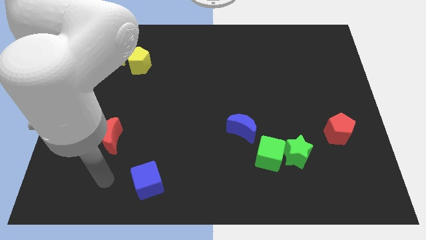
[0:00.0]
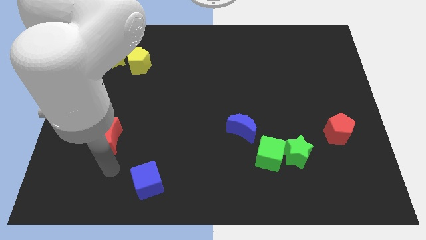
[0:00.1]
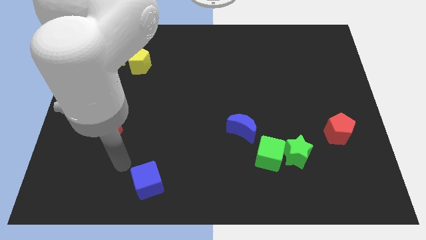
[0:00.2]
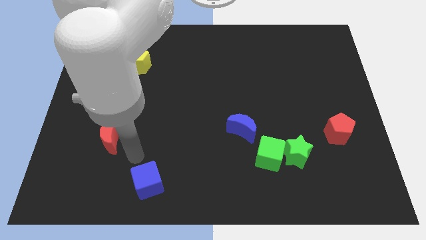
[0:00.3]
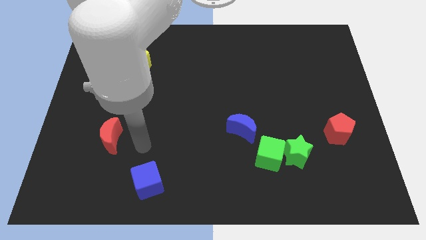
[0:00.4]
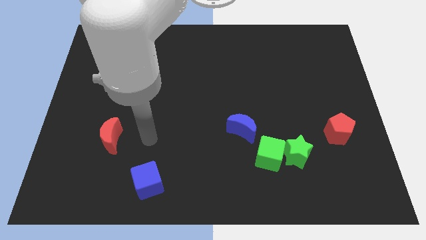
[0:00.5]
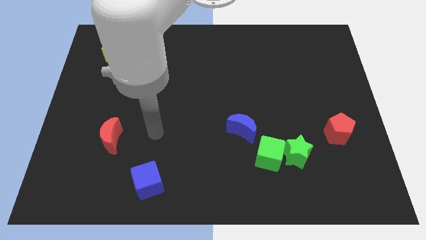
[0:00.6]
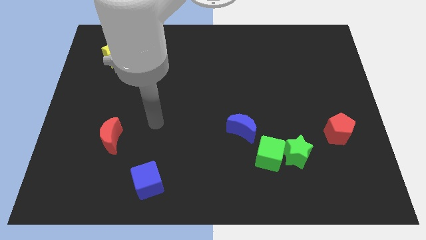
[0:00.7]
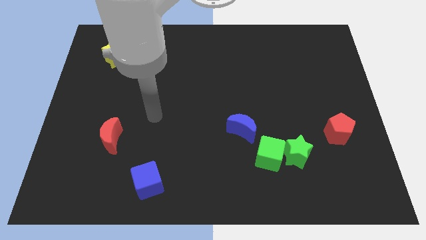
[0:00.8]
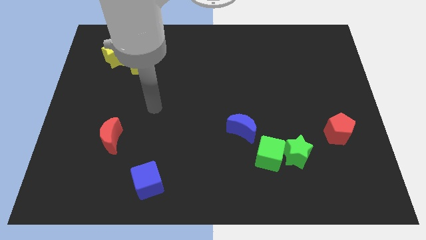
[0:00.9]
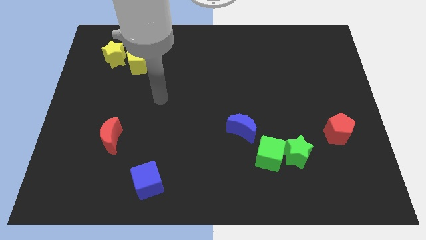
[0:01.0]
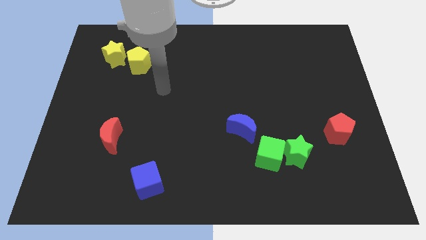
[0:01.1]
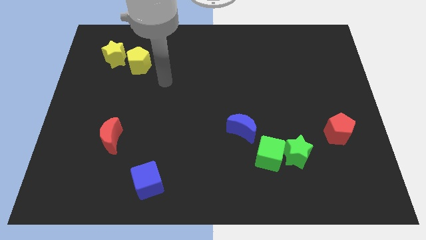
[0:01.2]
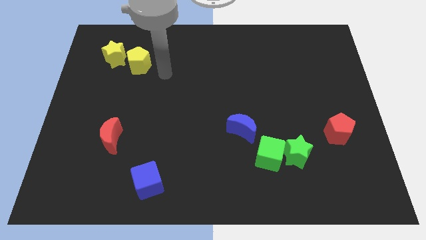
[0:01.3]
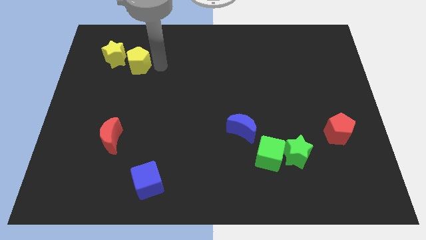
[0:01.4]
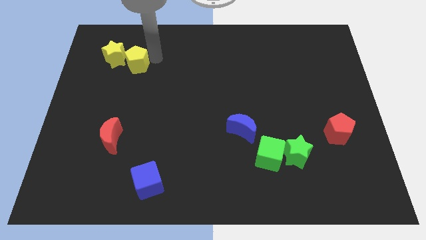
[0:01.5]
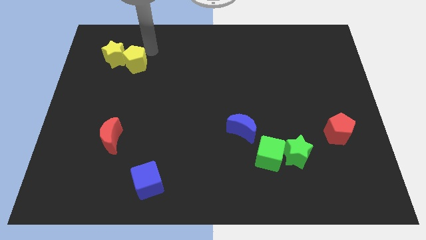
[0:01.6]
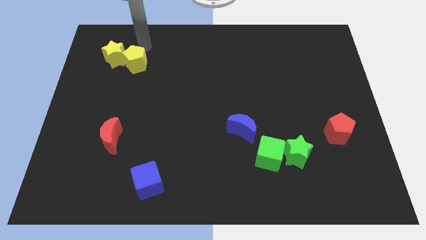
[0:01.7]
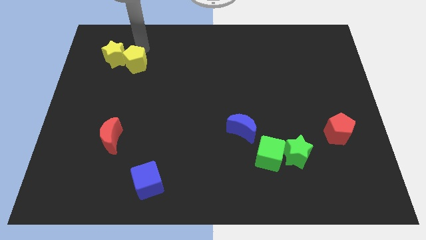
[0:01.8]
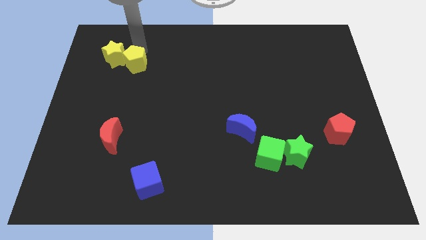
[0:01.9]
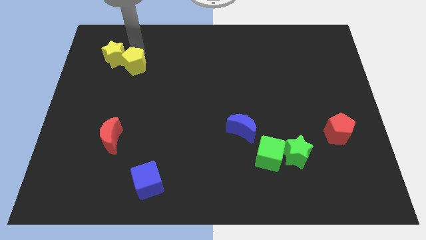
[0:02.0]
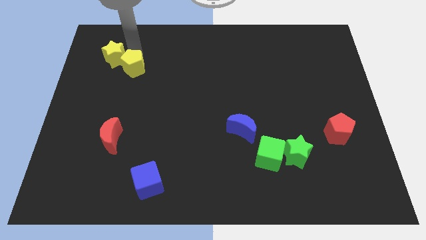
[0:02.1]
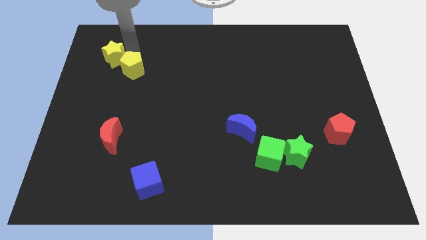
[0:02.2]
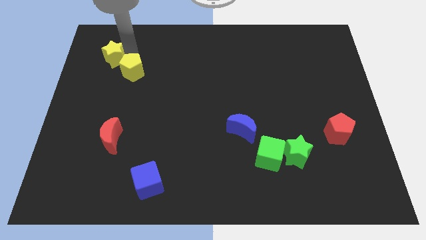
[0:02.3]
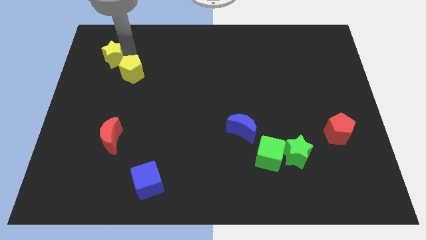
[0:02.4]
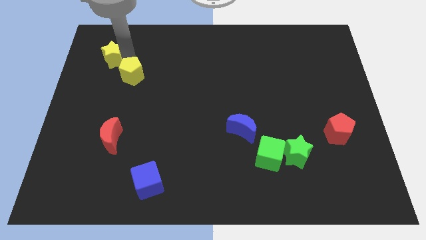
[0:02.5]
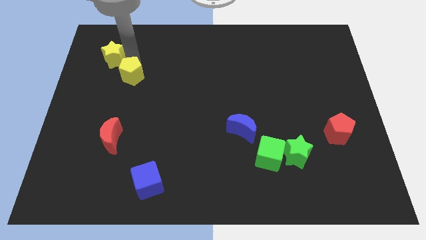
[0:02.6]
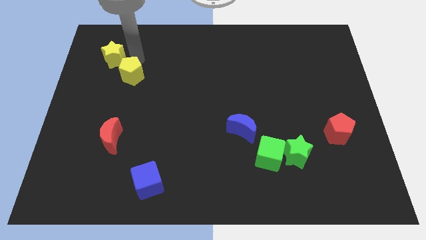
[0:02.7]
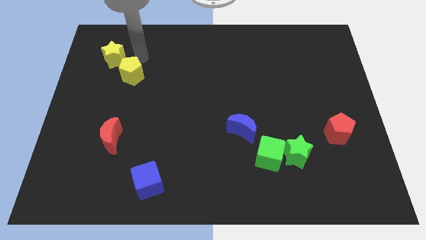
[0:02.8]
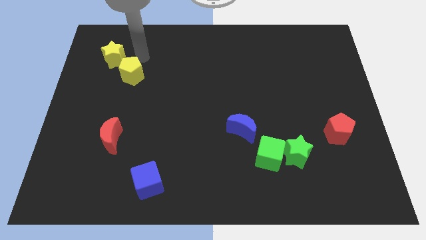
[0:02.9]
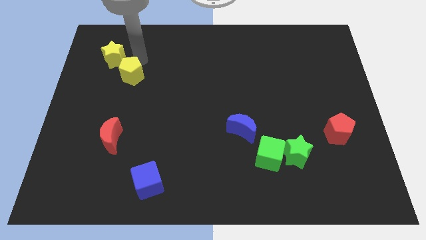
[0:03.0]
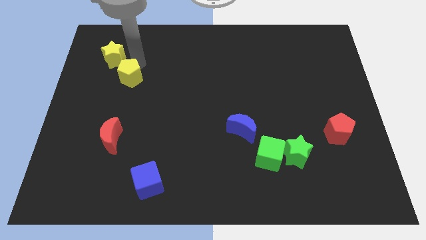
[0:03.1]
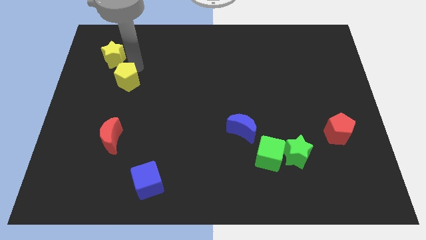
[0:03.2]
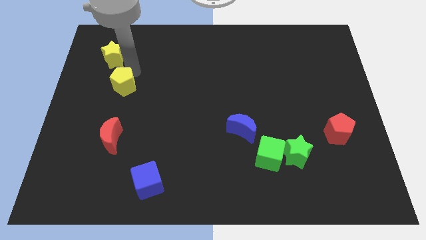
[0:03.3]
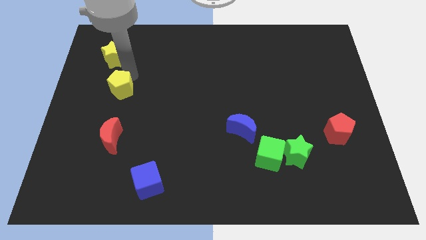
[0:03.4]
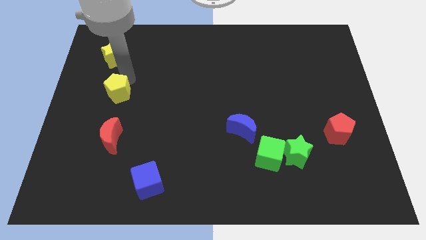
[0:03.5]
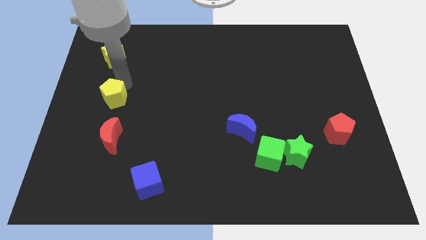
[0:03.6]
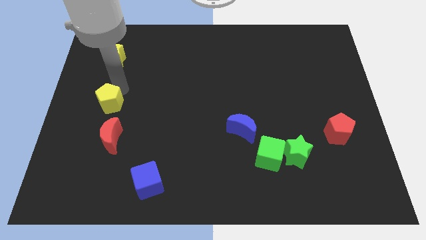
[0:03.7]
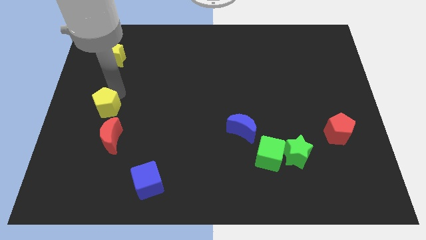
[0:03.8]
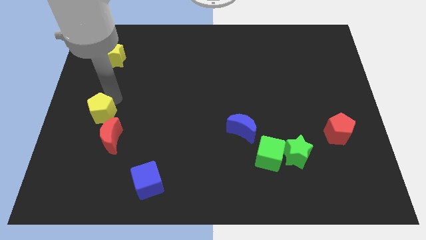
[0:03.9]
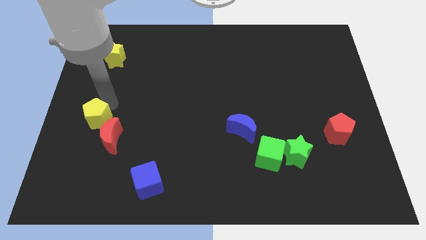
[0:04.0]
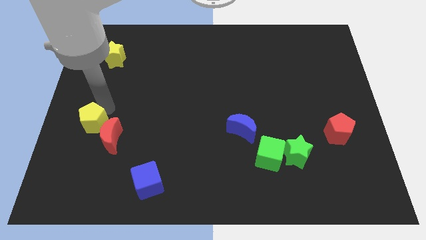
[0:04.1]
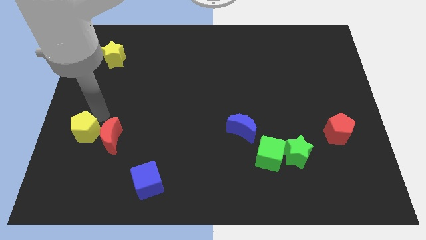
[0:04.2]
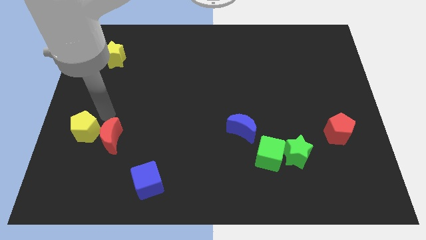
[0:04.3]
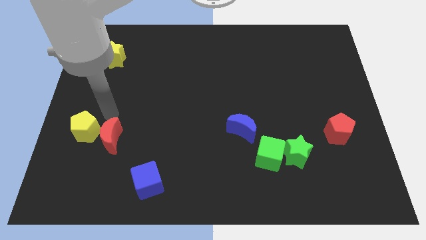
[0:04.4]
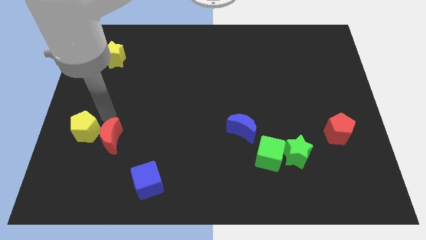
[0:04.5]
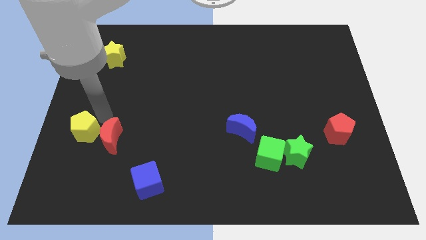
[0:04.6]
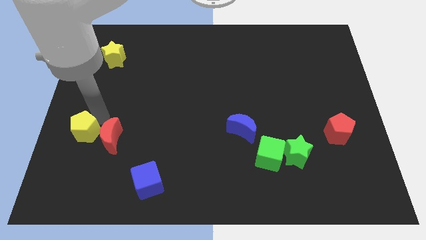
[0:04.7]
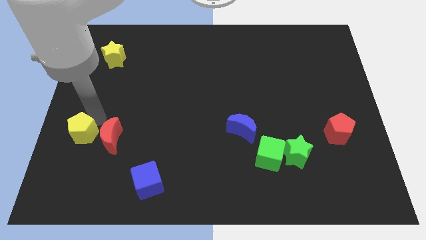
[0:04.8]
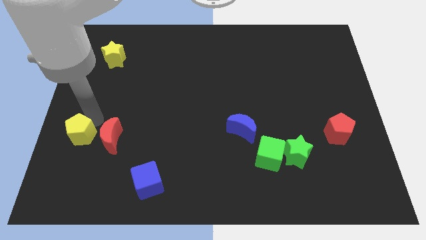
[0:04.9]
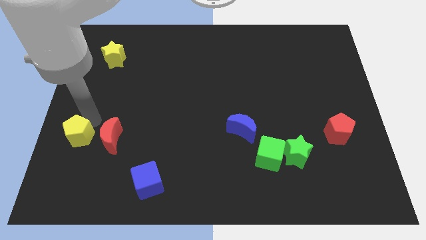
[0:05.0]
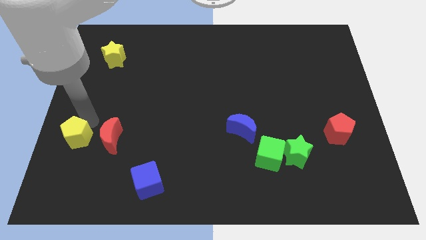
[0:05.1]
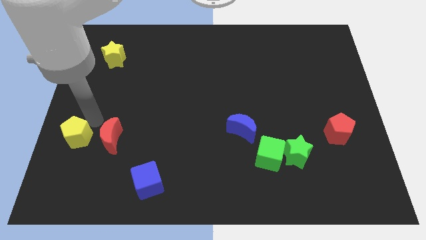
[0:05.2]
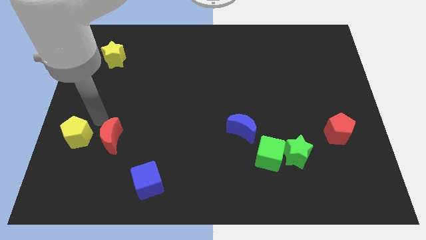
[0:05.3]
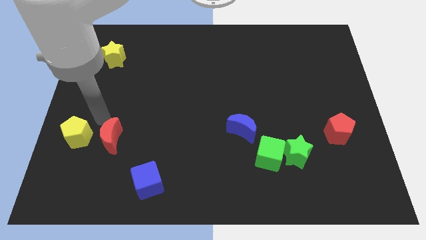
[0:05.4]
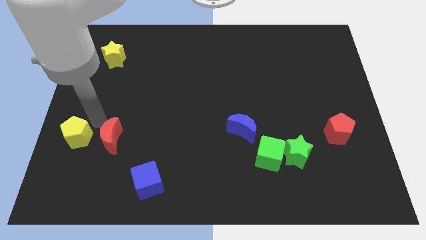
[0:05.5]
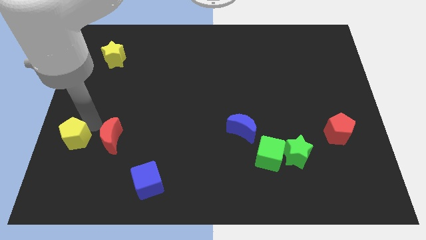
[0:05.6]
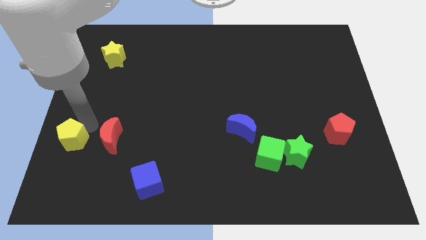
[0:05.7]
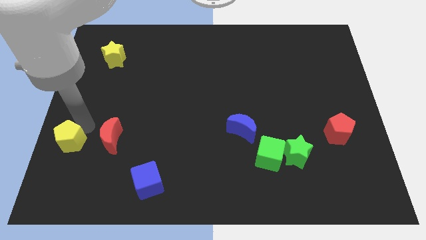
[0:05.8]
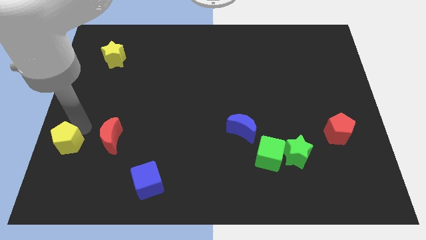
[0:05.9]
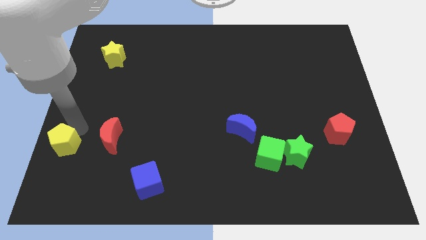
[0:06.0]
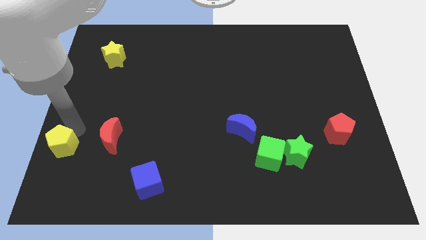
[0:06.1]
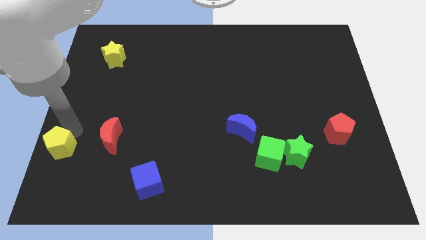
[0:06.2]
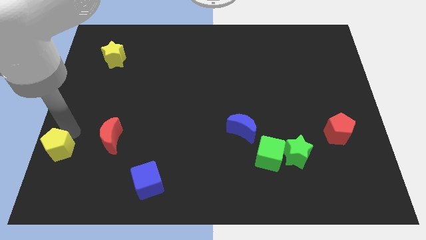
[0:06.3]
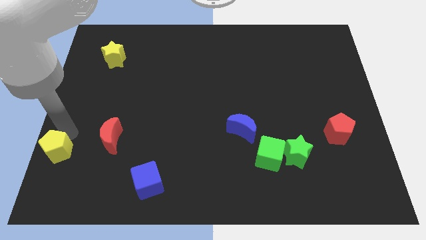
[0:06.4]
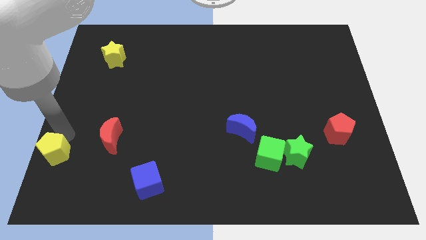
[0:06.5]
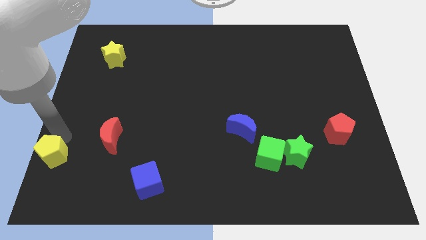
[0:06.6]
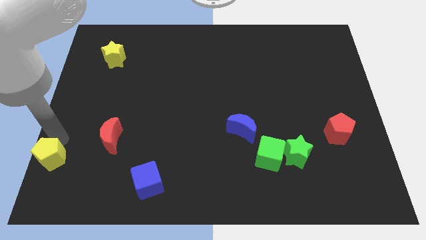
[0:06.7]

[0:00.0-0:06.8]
put the yellow pentagon to the lower left corner
